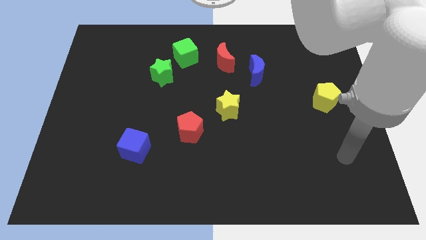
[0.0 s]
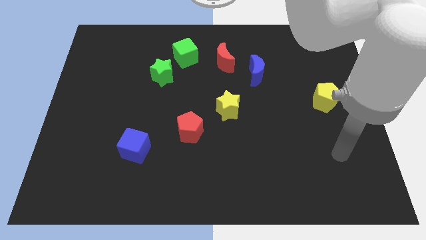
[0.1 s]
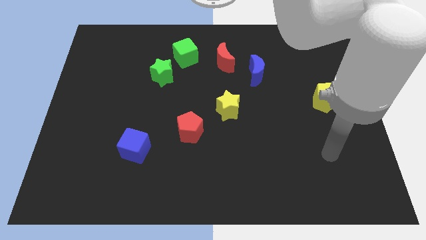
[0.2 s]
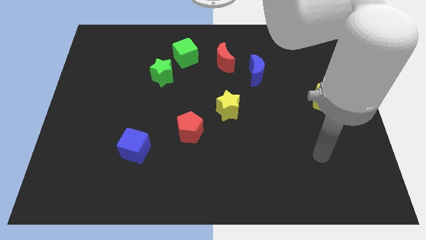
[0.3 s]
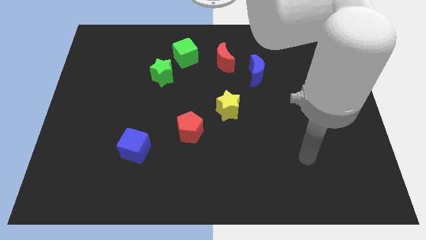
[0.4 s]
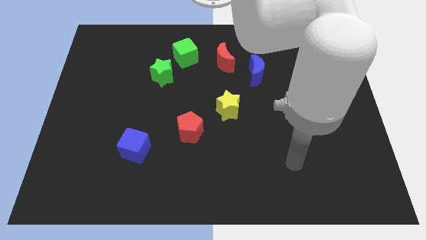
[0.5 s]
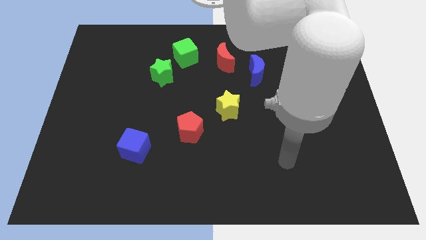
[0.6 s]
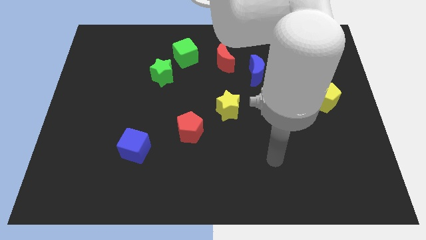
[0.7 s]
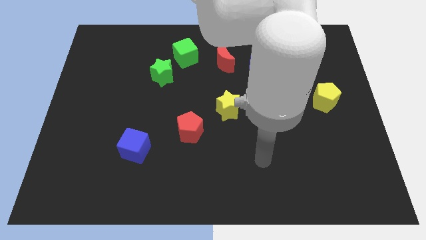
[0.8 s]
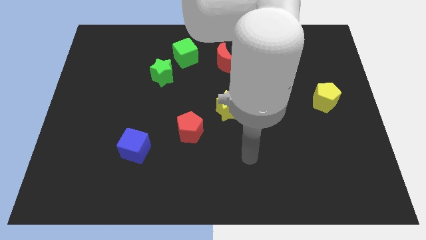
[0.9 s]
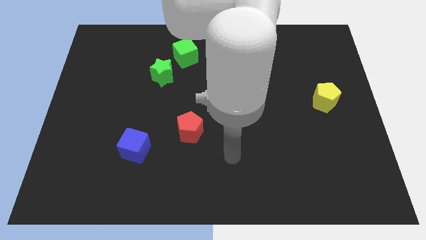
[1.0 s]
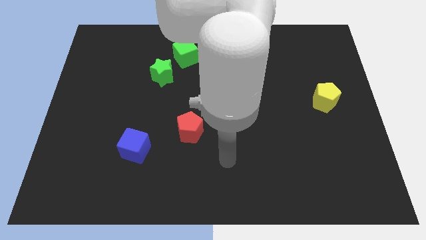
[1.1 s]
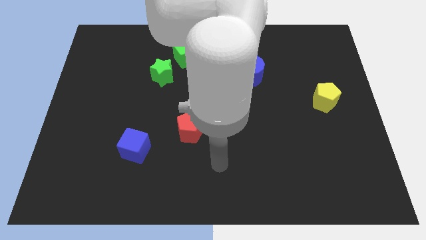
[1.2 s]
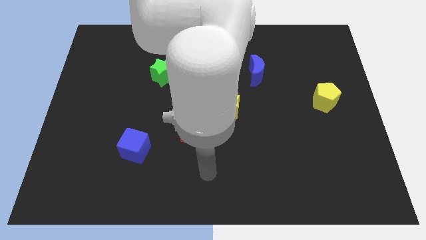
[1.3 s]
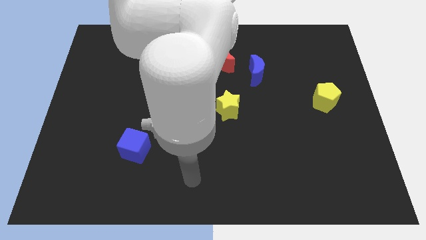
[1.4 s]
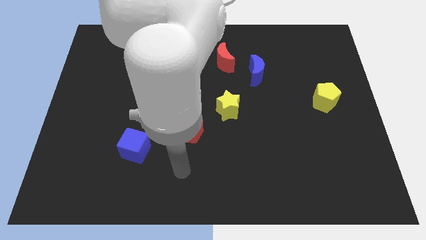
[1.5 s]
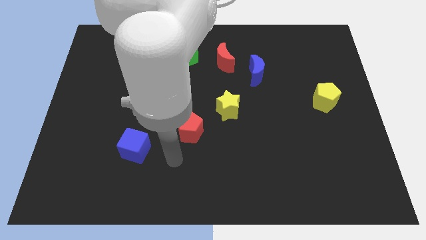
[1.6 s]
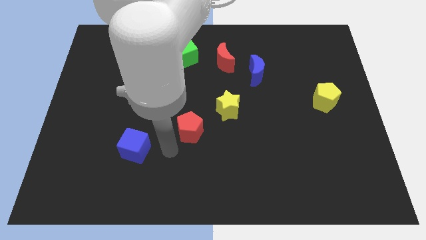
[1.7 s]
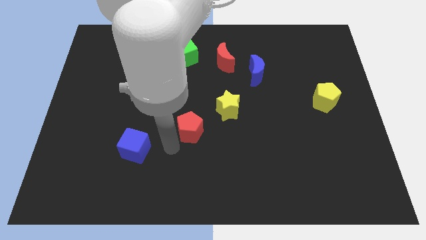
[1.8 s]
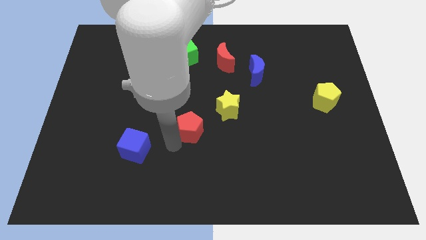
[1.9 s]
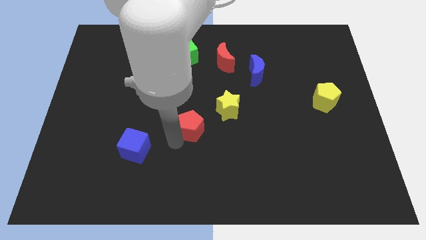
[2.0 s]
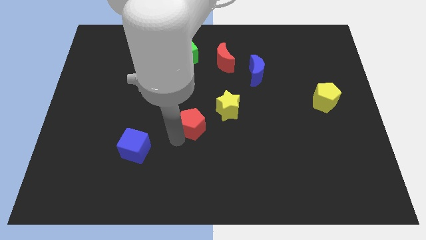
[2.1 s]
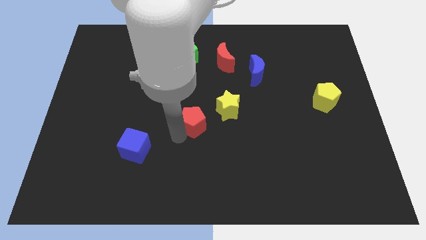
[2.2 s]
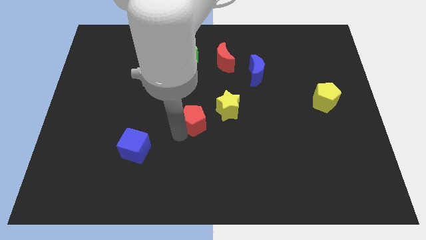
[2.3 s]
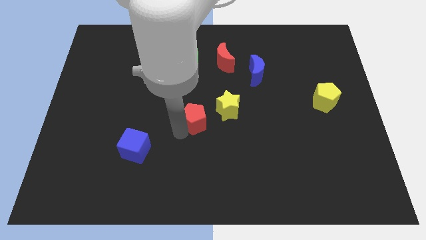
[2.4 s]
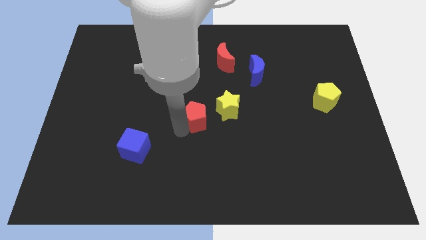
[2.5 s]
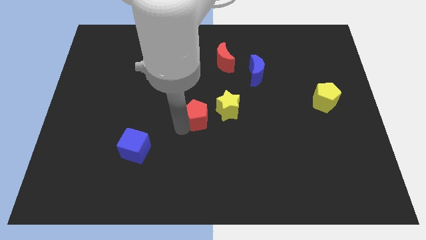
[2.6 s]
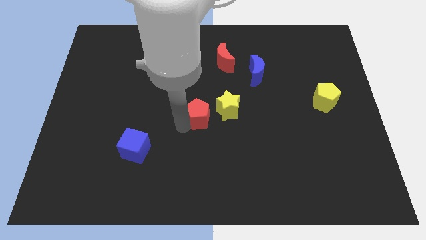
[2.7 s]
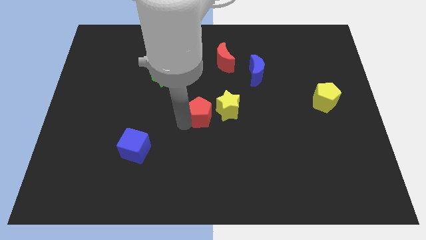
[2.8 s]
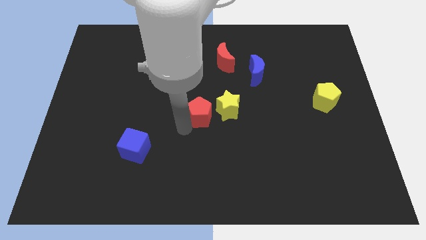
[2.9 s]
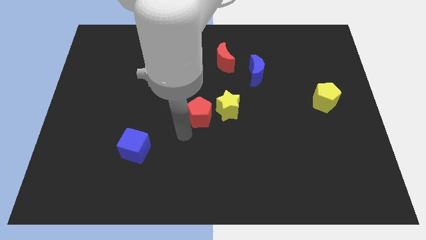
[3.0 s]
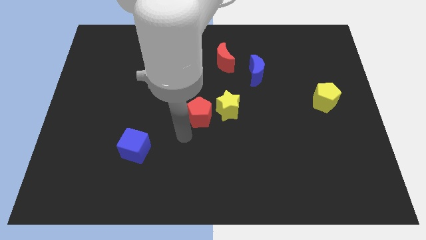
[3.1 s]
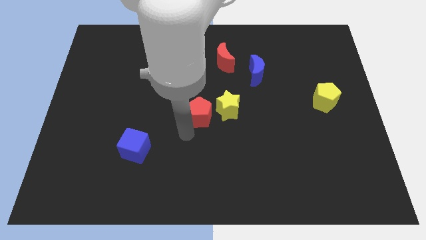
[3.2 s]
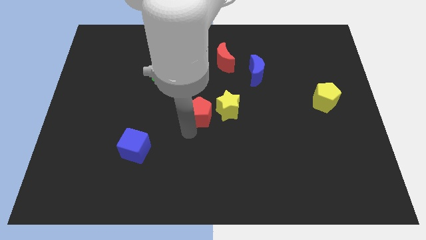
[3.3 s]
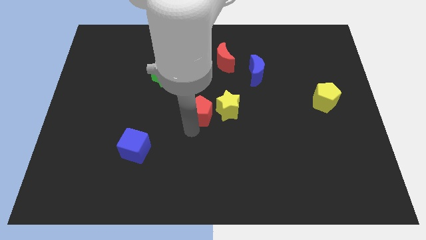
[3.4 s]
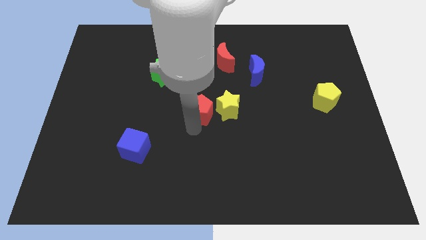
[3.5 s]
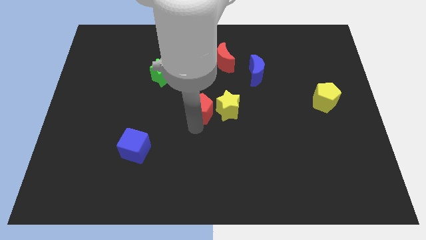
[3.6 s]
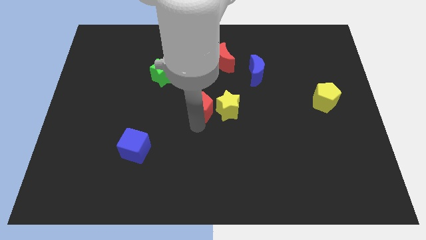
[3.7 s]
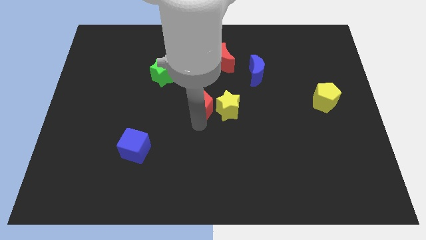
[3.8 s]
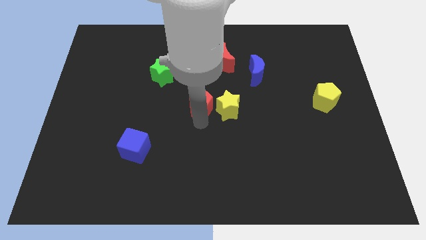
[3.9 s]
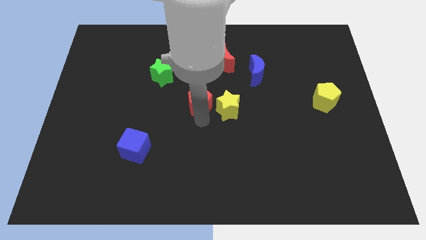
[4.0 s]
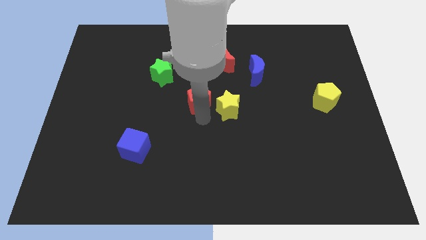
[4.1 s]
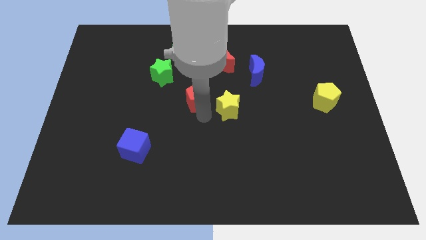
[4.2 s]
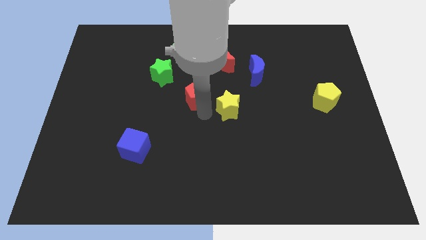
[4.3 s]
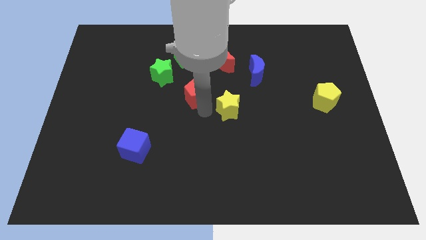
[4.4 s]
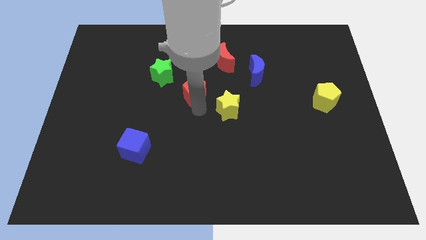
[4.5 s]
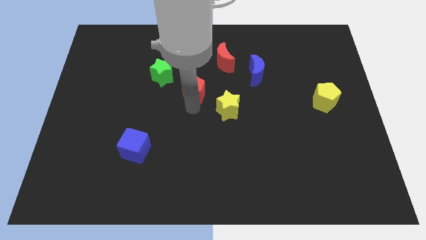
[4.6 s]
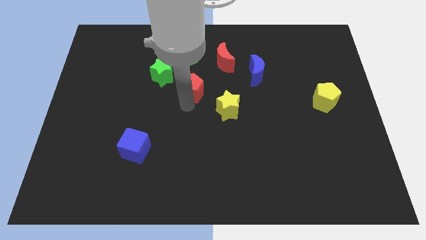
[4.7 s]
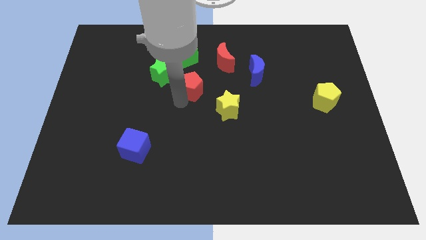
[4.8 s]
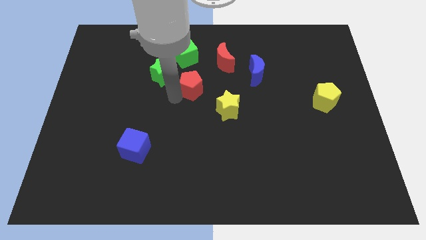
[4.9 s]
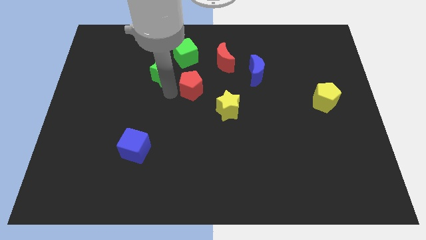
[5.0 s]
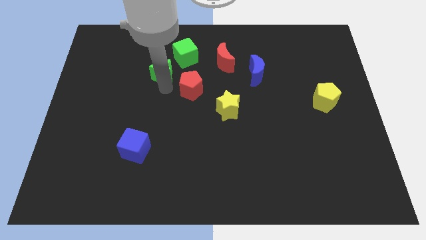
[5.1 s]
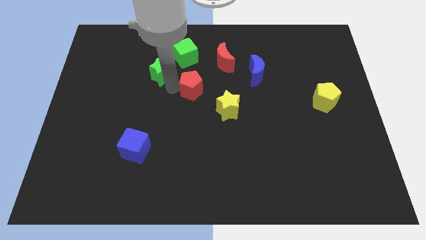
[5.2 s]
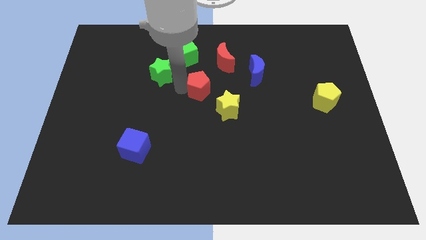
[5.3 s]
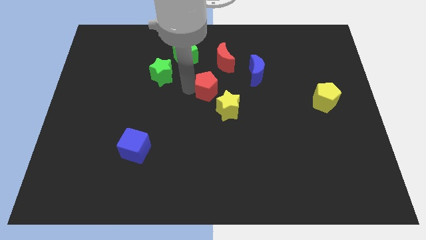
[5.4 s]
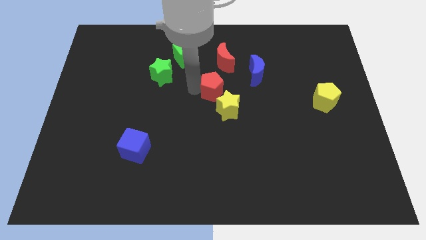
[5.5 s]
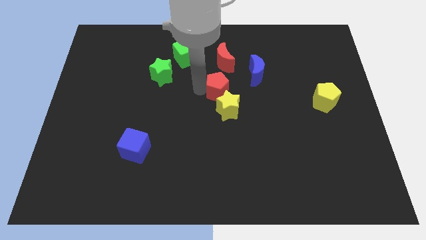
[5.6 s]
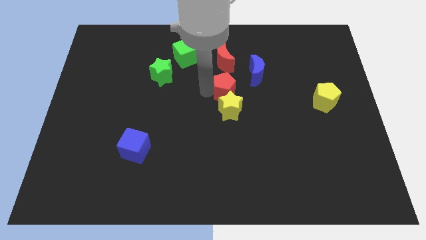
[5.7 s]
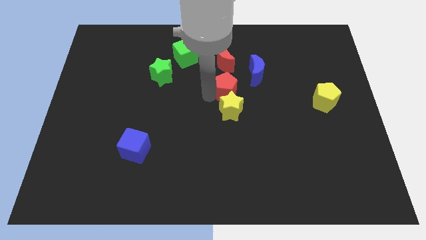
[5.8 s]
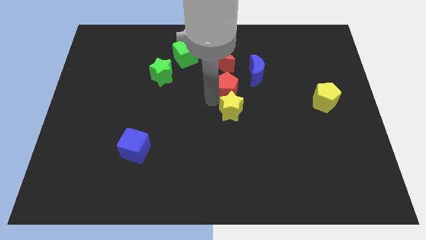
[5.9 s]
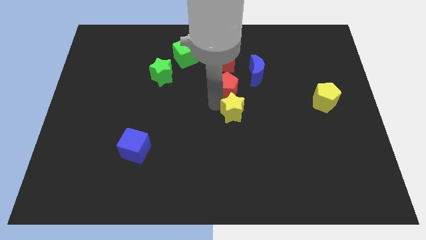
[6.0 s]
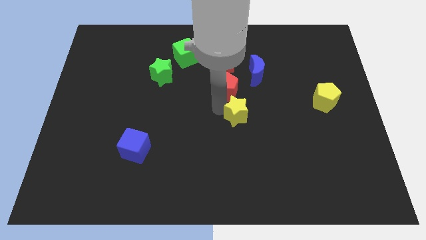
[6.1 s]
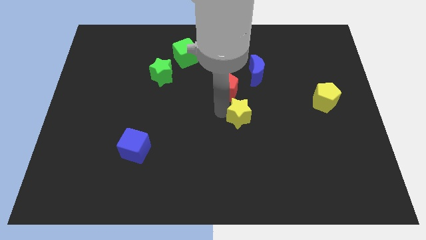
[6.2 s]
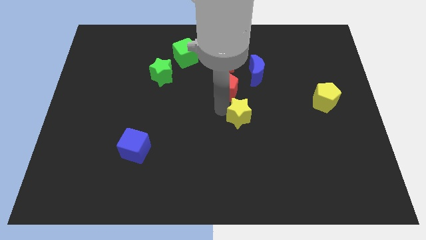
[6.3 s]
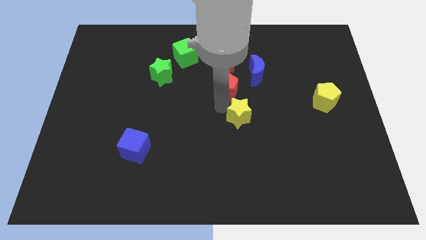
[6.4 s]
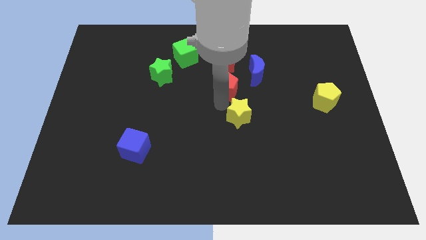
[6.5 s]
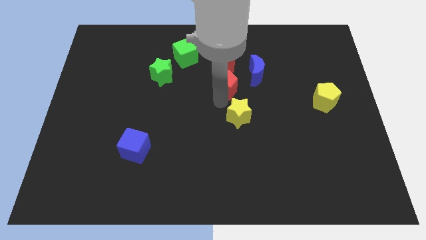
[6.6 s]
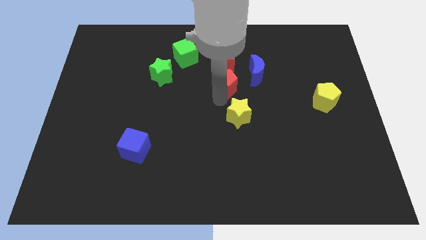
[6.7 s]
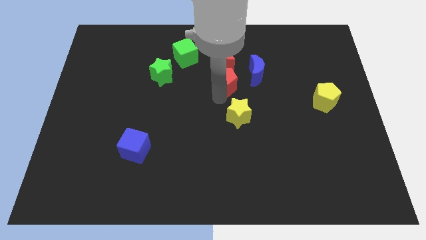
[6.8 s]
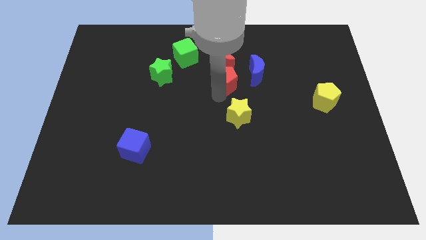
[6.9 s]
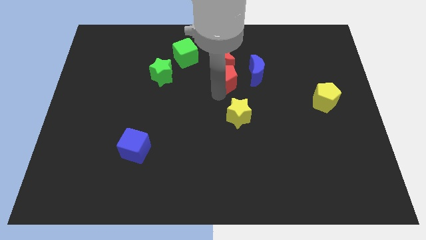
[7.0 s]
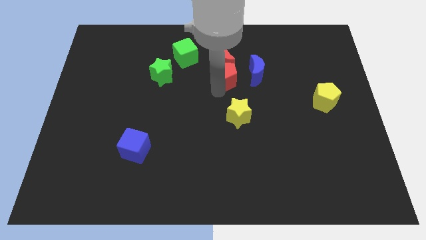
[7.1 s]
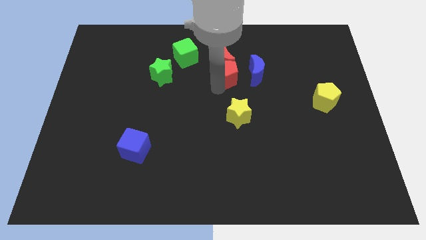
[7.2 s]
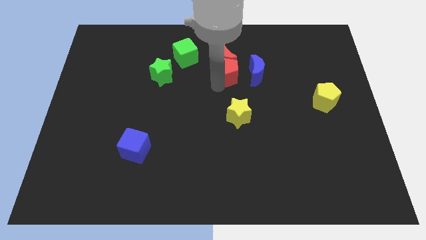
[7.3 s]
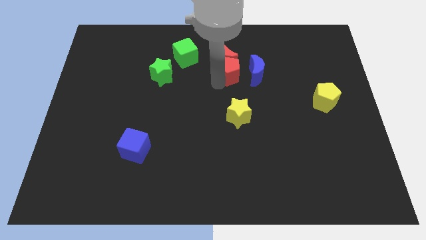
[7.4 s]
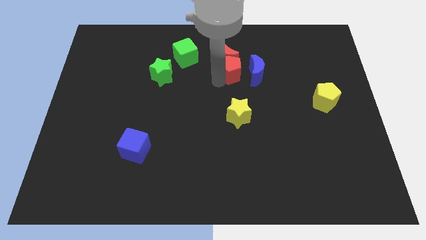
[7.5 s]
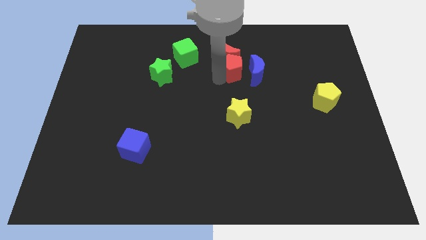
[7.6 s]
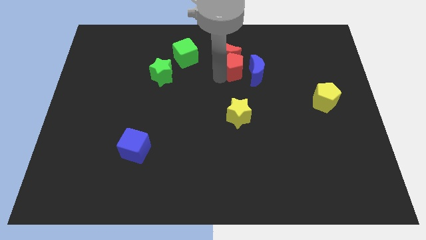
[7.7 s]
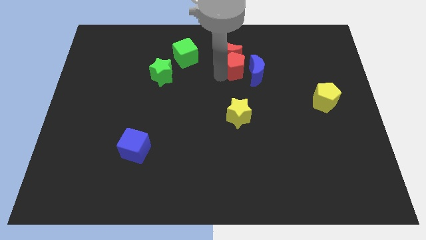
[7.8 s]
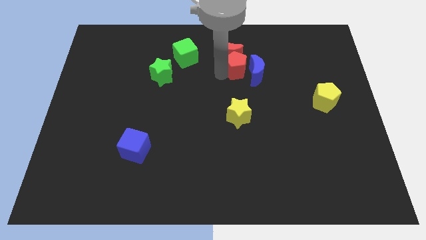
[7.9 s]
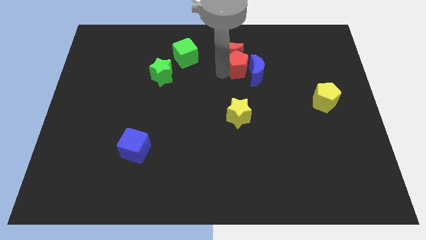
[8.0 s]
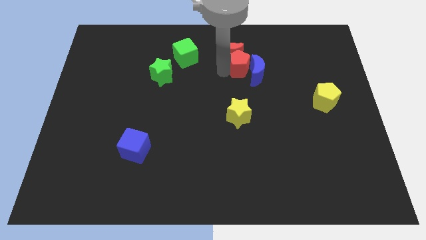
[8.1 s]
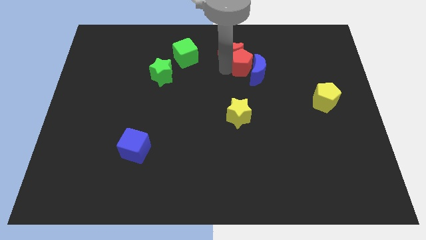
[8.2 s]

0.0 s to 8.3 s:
put the red pentagon right of the red moon

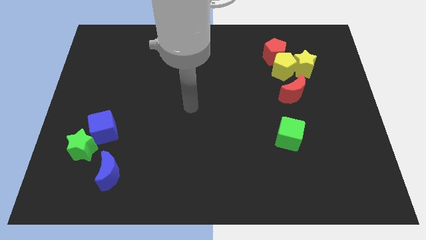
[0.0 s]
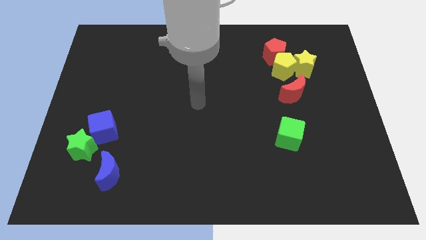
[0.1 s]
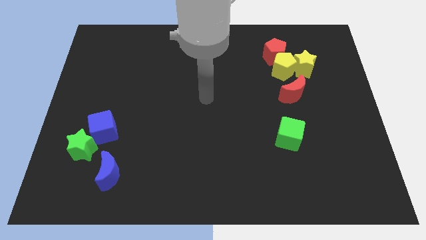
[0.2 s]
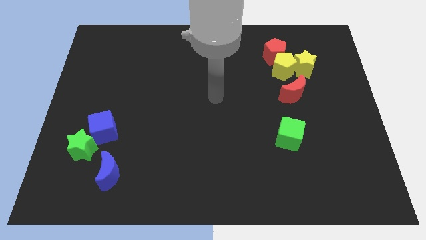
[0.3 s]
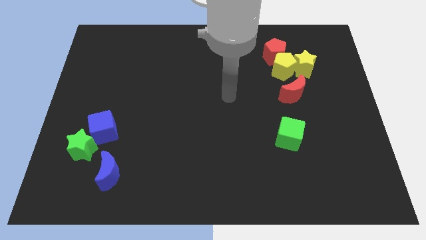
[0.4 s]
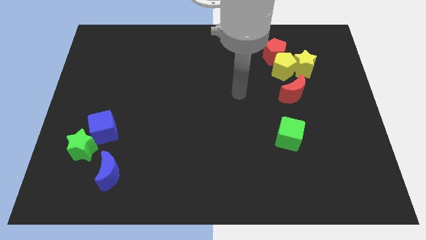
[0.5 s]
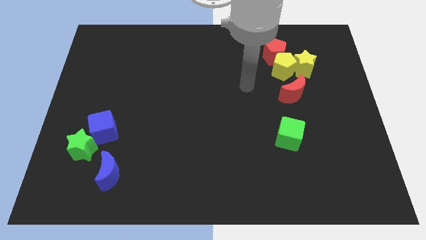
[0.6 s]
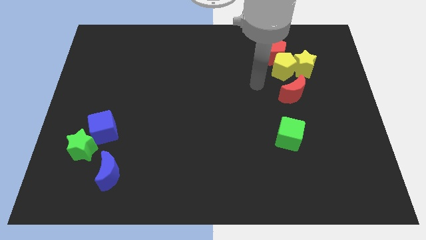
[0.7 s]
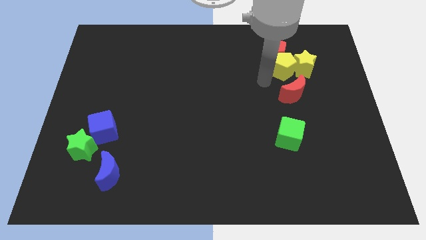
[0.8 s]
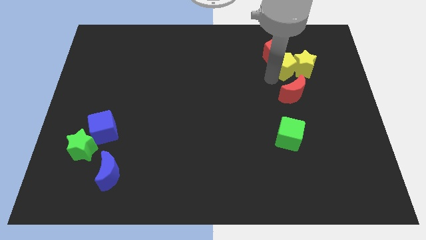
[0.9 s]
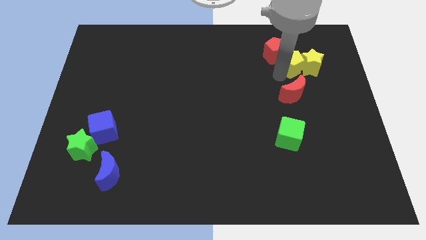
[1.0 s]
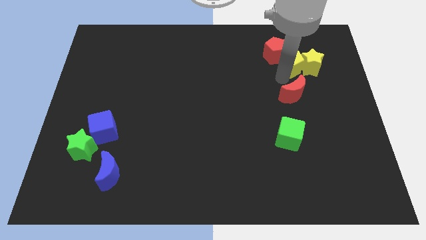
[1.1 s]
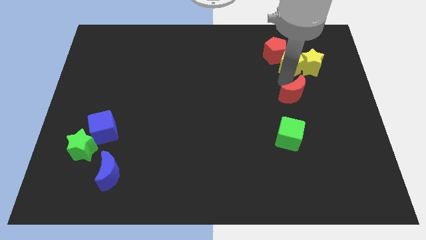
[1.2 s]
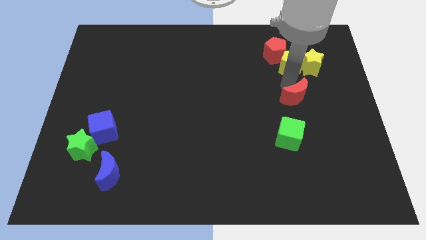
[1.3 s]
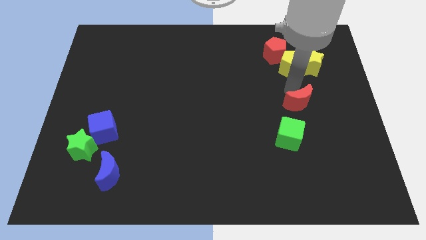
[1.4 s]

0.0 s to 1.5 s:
push the red moon to the top right of the green cube
